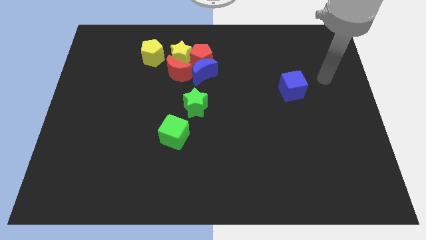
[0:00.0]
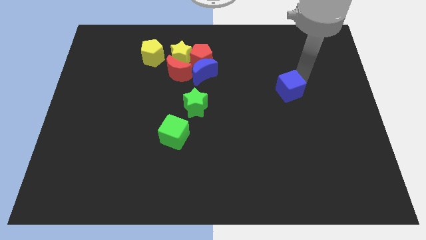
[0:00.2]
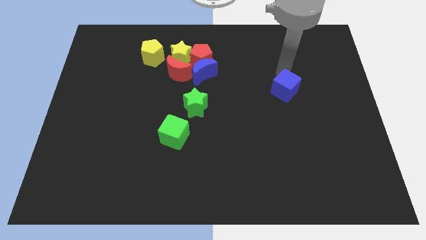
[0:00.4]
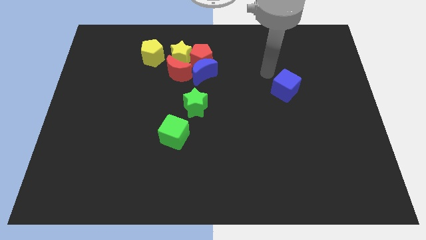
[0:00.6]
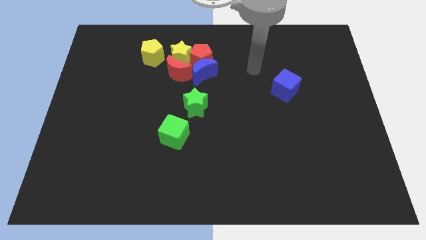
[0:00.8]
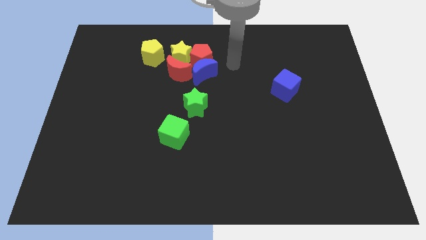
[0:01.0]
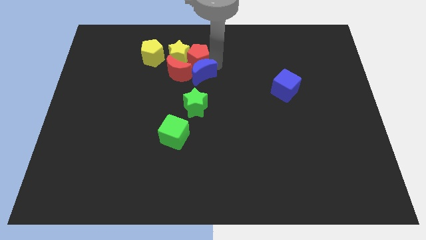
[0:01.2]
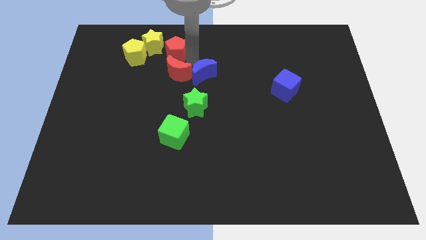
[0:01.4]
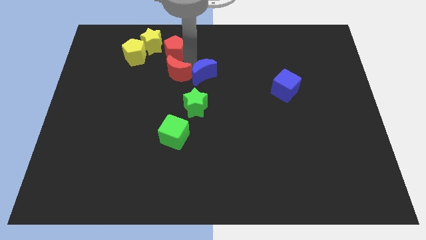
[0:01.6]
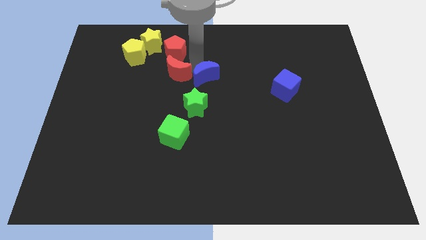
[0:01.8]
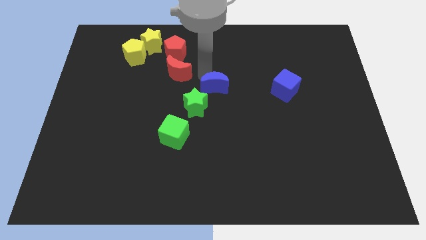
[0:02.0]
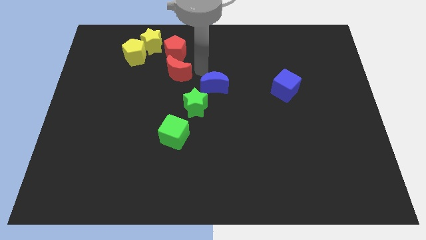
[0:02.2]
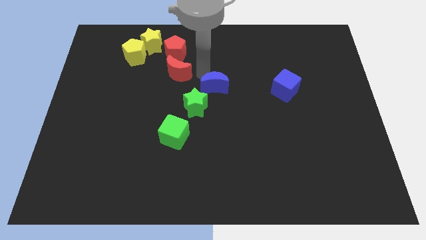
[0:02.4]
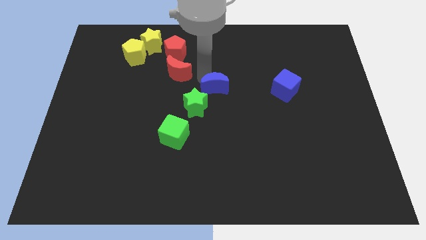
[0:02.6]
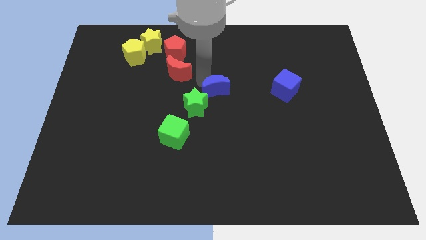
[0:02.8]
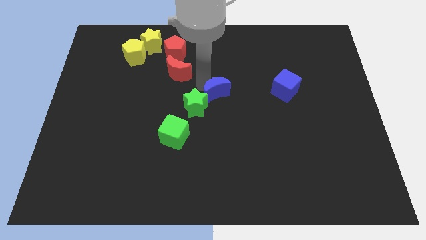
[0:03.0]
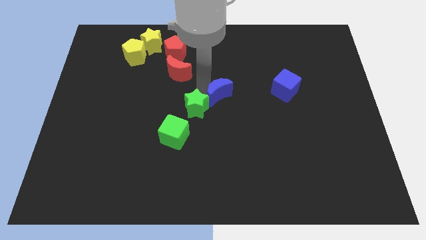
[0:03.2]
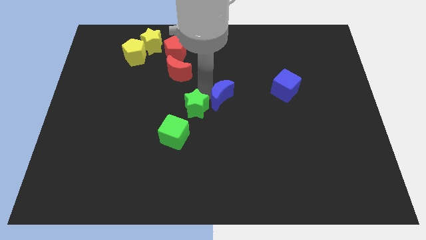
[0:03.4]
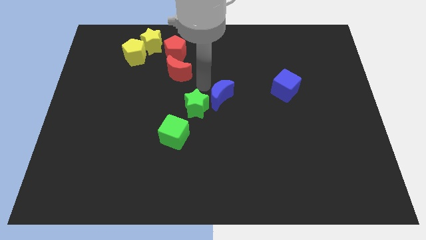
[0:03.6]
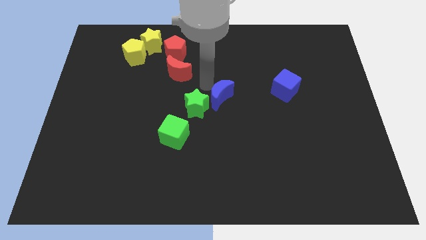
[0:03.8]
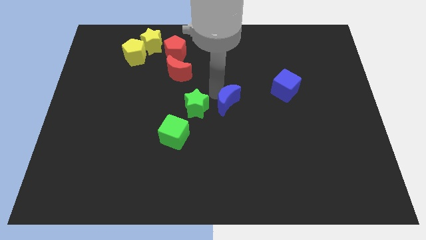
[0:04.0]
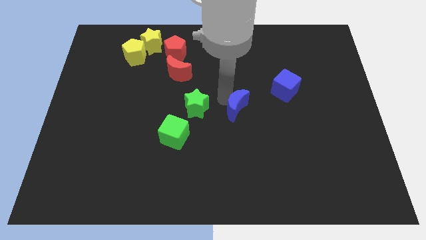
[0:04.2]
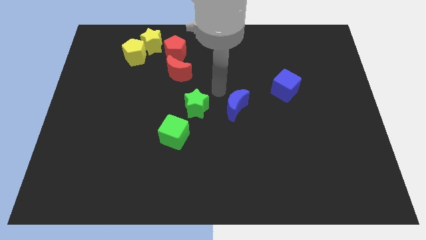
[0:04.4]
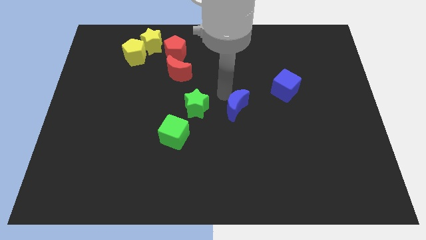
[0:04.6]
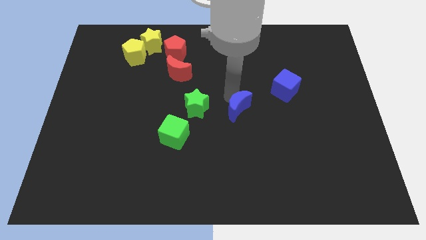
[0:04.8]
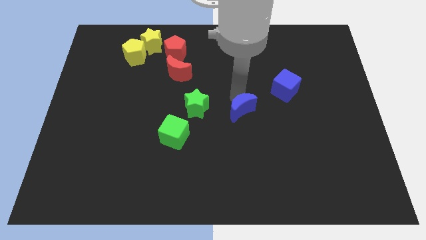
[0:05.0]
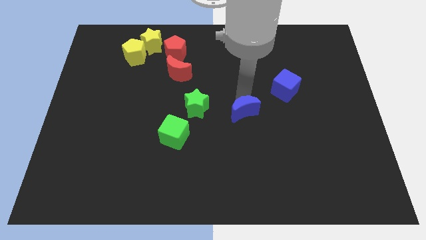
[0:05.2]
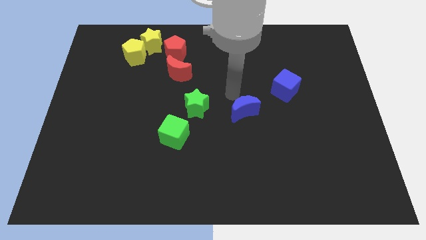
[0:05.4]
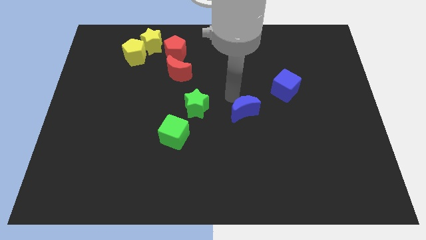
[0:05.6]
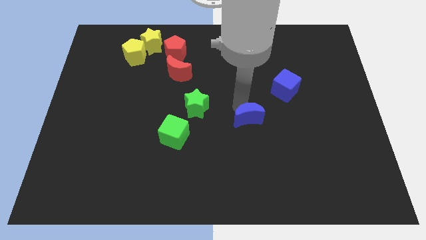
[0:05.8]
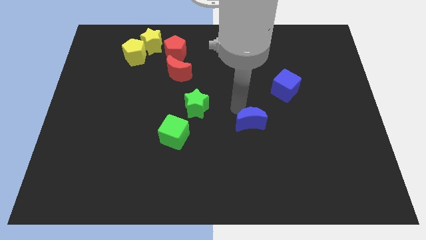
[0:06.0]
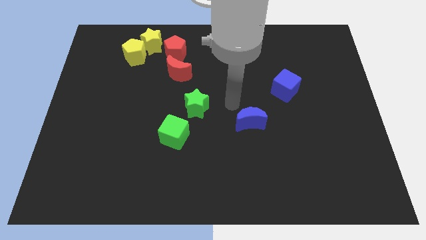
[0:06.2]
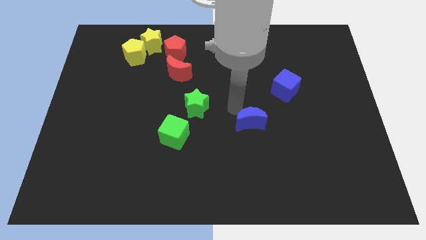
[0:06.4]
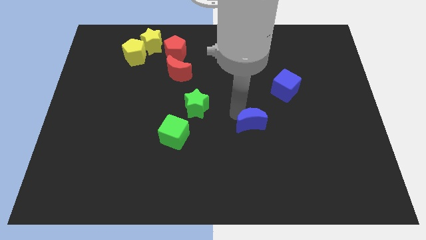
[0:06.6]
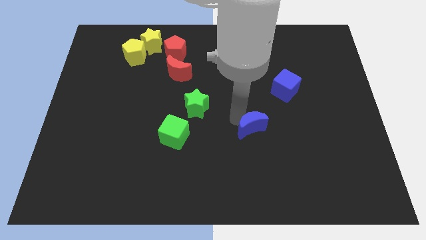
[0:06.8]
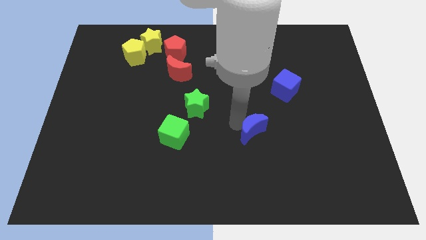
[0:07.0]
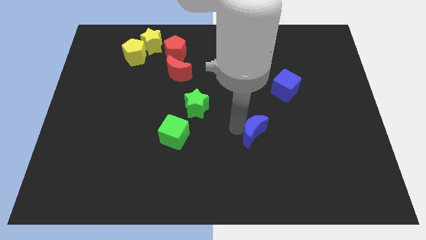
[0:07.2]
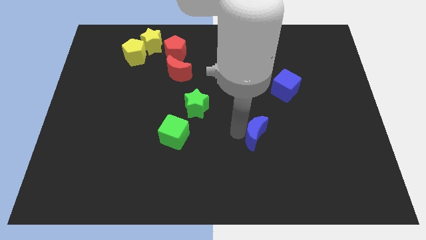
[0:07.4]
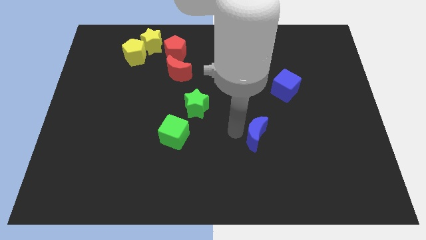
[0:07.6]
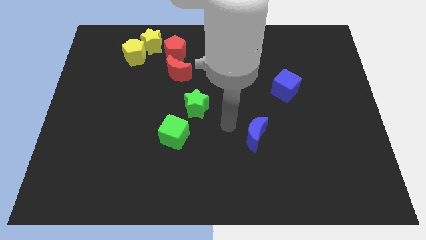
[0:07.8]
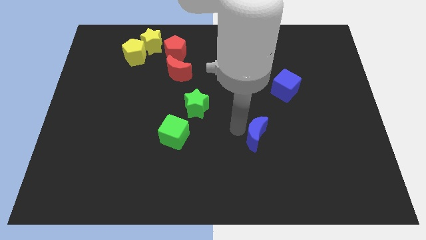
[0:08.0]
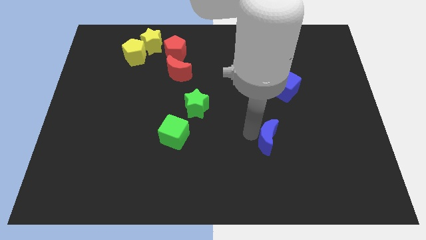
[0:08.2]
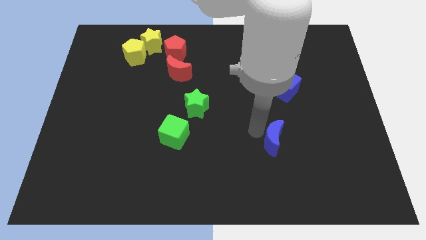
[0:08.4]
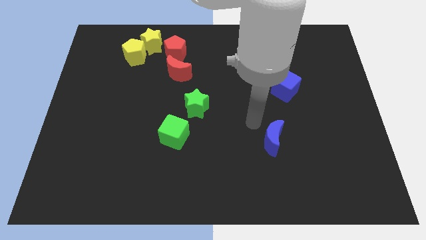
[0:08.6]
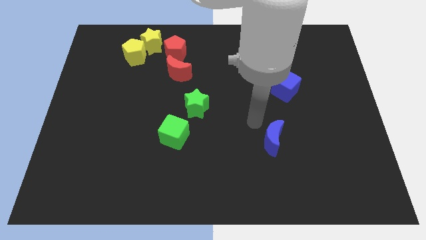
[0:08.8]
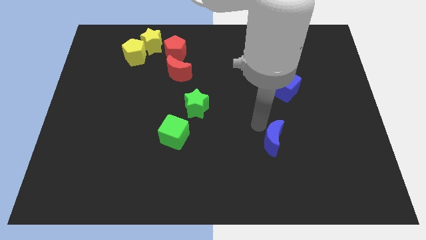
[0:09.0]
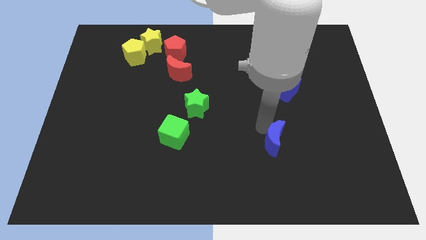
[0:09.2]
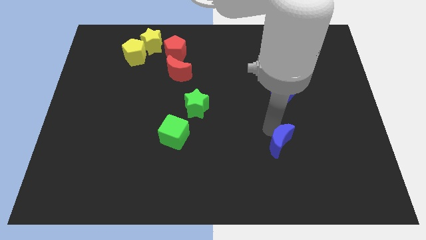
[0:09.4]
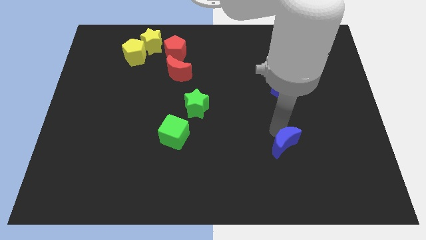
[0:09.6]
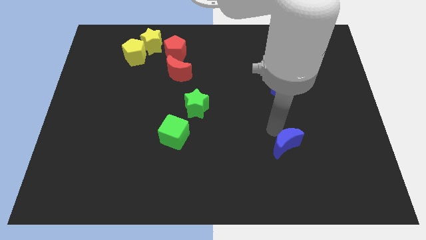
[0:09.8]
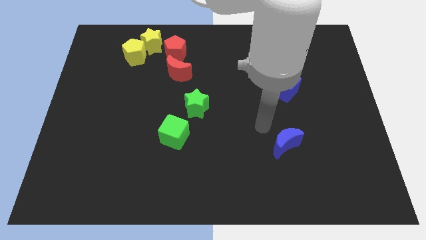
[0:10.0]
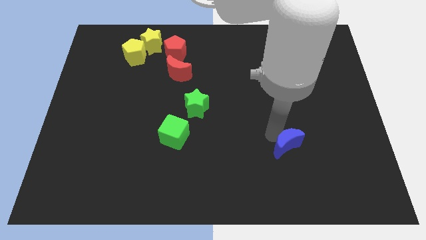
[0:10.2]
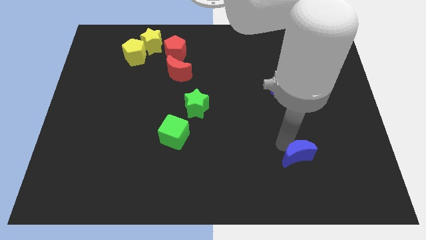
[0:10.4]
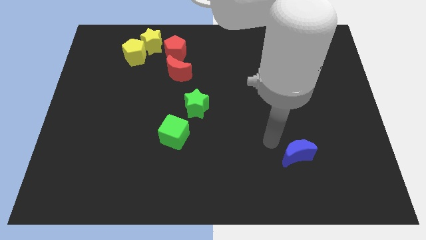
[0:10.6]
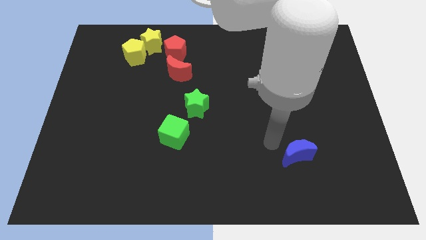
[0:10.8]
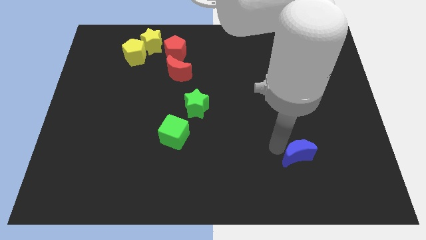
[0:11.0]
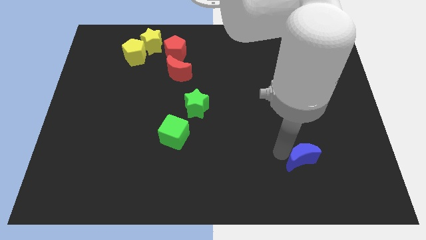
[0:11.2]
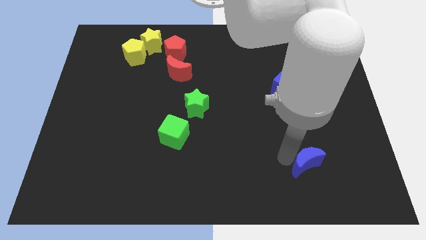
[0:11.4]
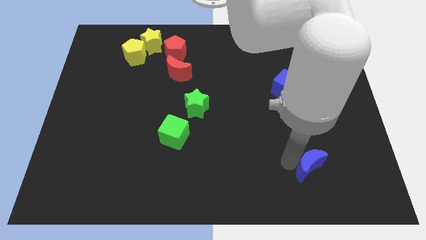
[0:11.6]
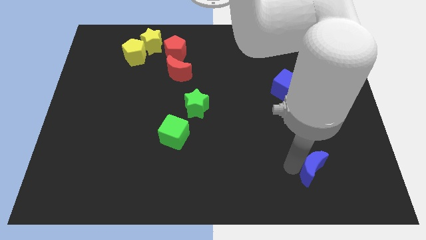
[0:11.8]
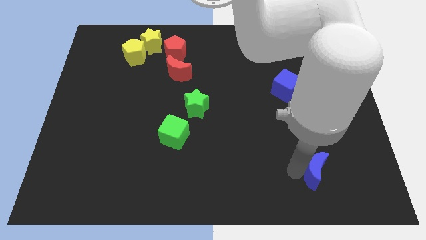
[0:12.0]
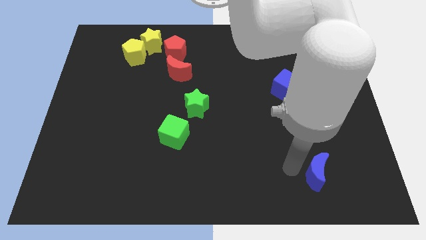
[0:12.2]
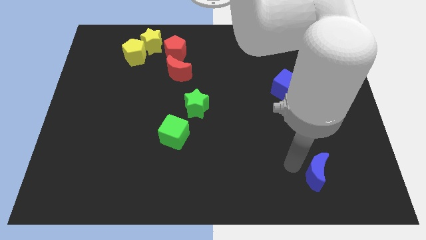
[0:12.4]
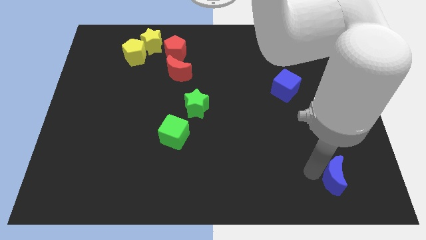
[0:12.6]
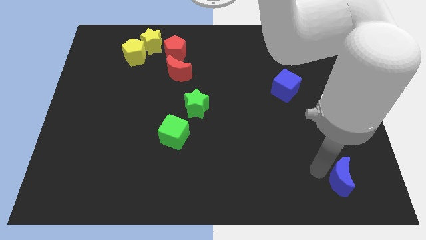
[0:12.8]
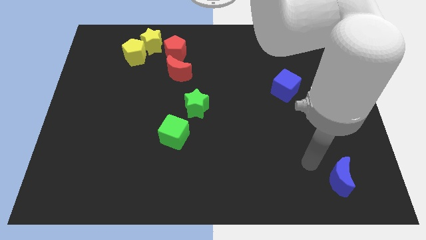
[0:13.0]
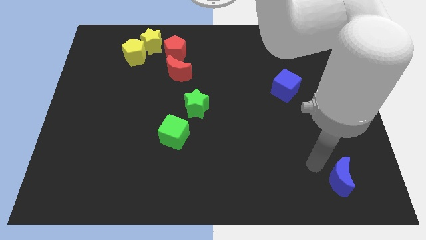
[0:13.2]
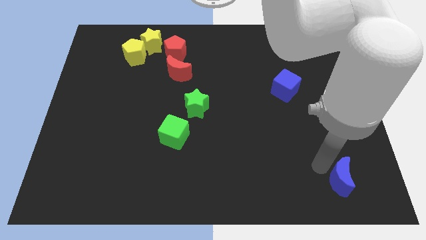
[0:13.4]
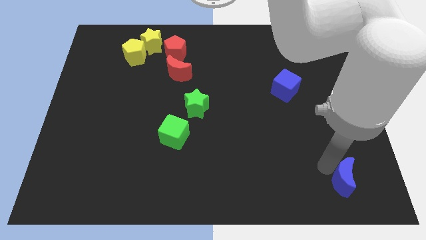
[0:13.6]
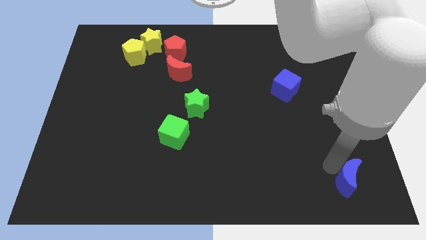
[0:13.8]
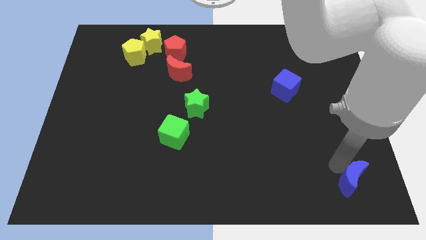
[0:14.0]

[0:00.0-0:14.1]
put the blue moon to the bottom right corner
